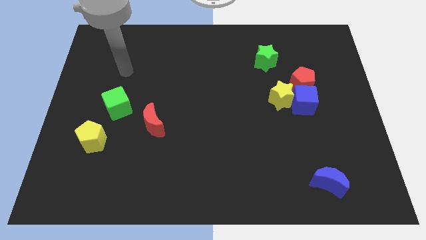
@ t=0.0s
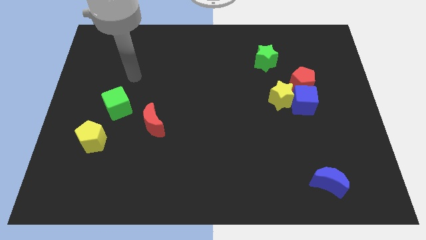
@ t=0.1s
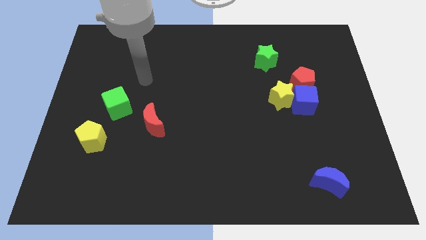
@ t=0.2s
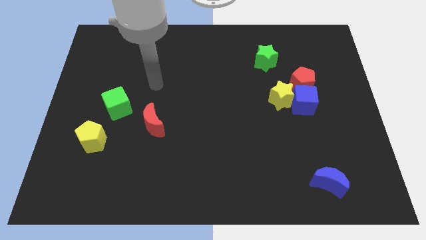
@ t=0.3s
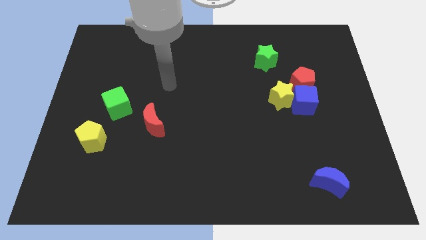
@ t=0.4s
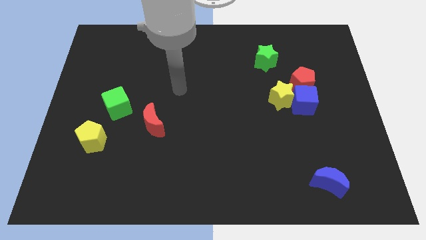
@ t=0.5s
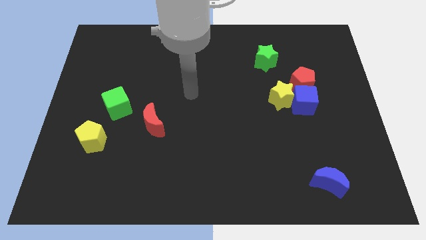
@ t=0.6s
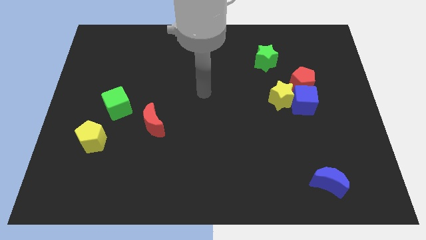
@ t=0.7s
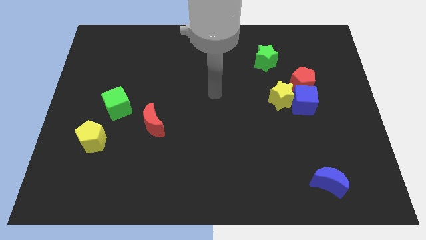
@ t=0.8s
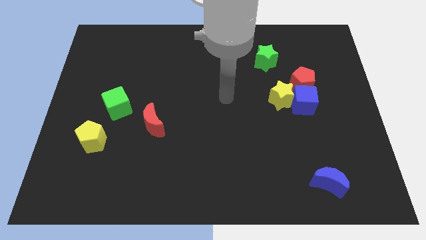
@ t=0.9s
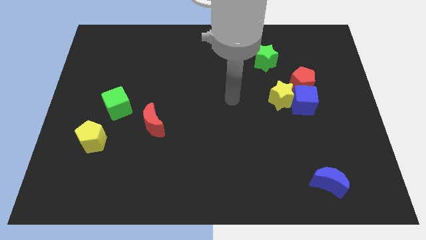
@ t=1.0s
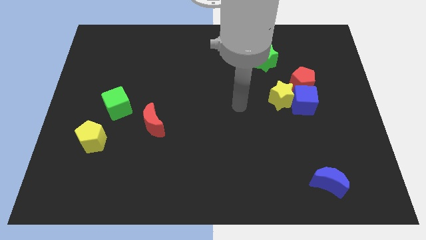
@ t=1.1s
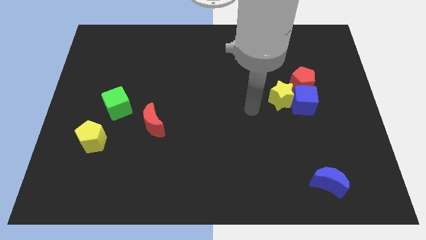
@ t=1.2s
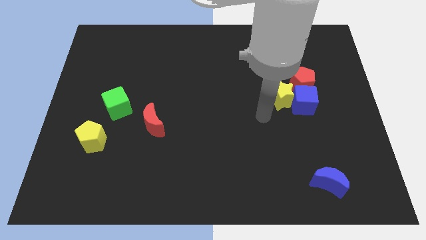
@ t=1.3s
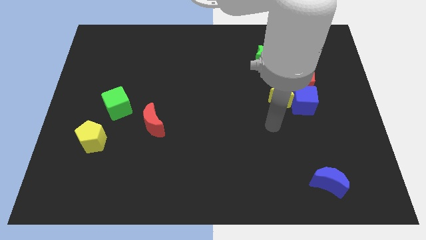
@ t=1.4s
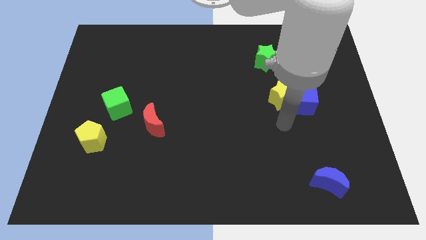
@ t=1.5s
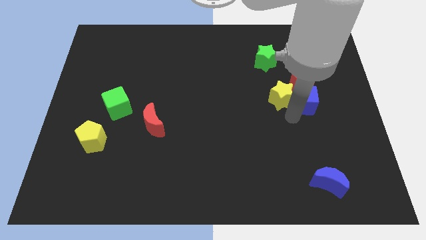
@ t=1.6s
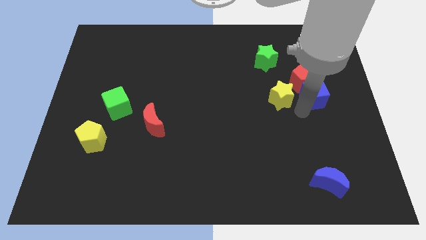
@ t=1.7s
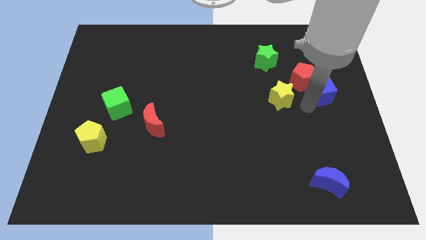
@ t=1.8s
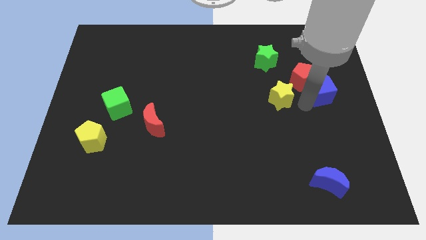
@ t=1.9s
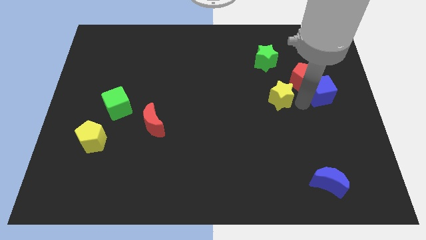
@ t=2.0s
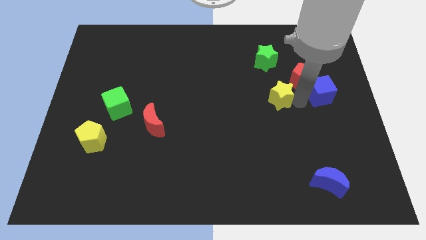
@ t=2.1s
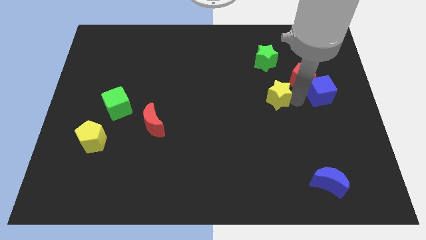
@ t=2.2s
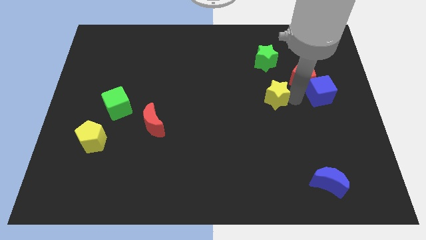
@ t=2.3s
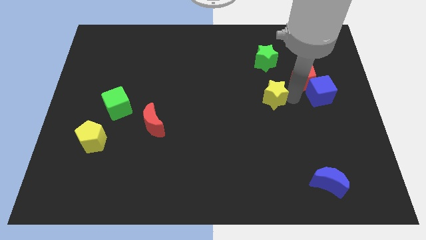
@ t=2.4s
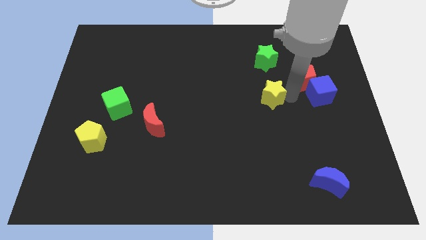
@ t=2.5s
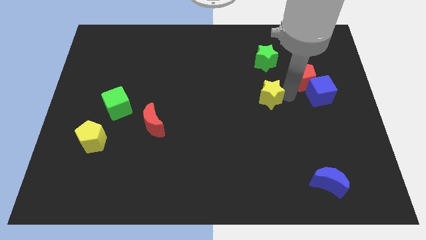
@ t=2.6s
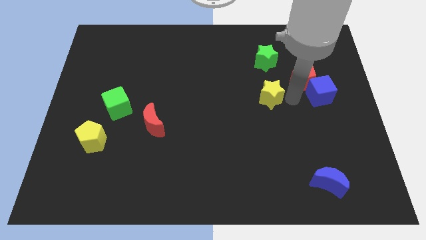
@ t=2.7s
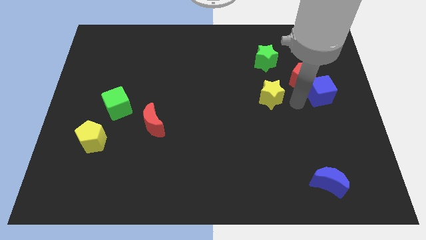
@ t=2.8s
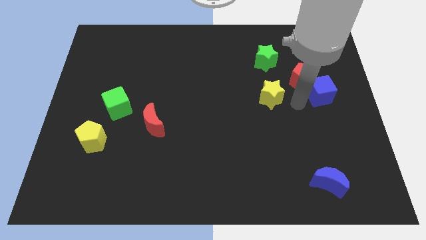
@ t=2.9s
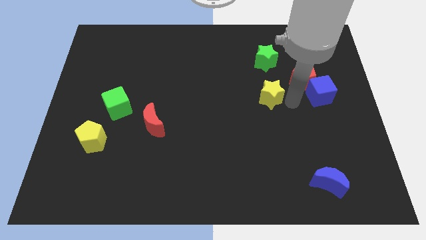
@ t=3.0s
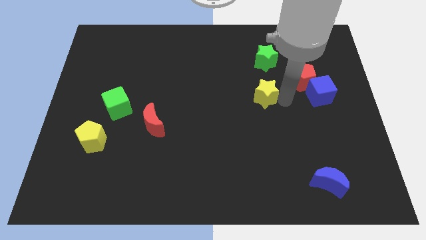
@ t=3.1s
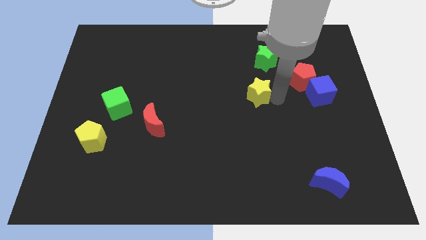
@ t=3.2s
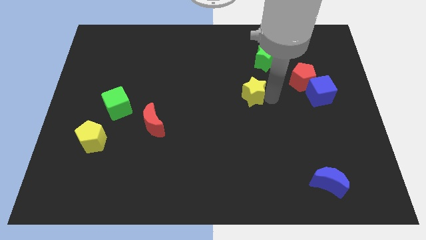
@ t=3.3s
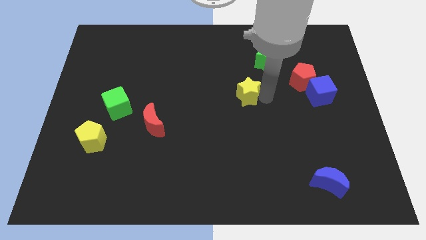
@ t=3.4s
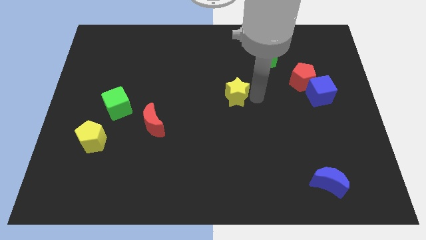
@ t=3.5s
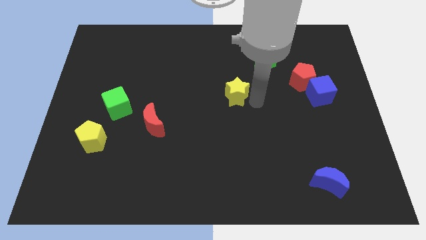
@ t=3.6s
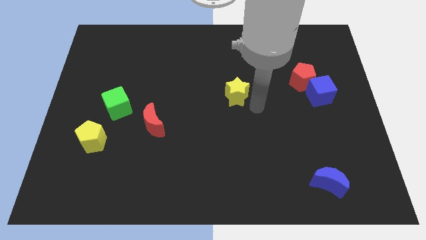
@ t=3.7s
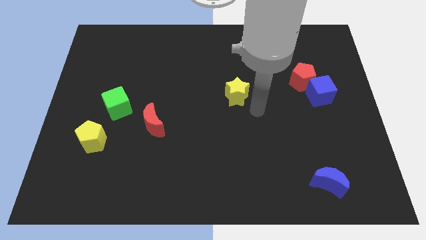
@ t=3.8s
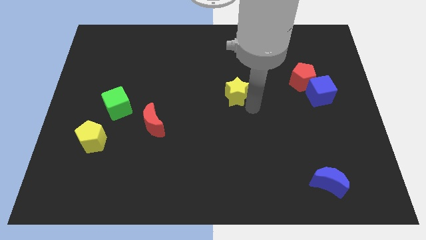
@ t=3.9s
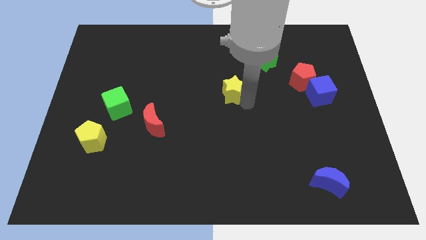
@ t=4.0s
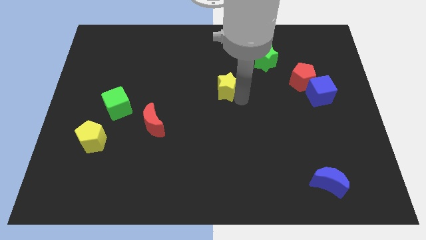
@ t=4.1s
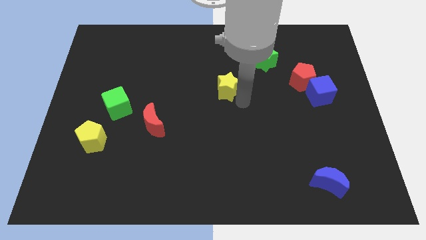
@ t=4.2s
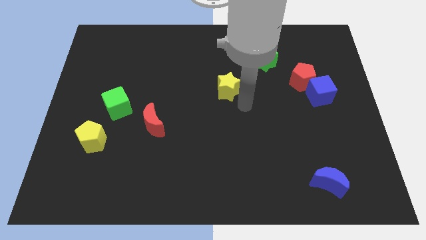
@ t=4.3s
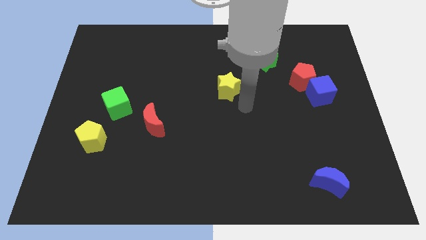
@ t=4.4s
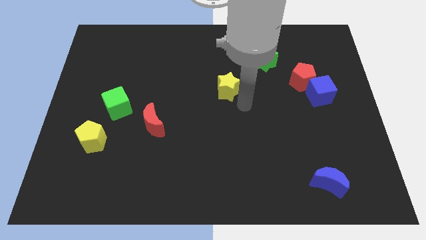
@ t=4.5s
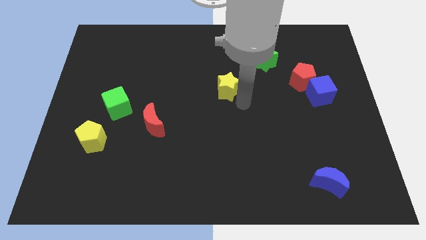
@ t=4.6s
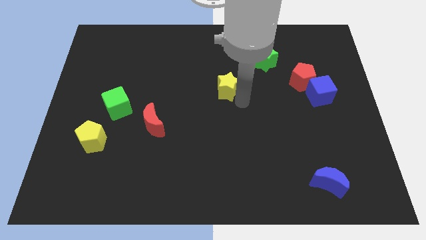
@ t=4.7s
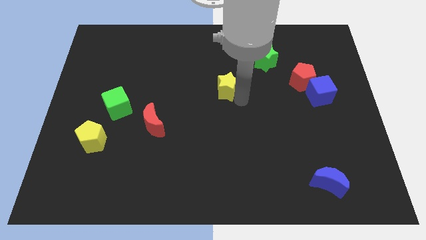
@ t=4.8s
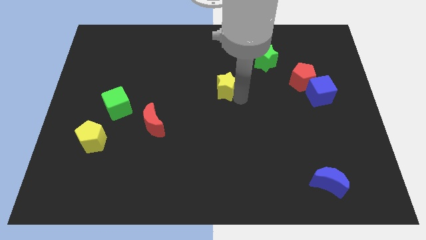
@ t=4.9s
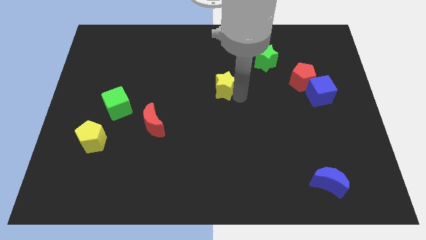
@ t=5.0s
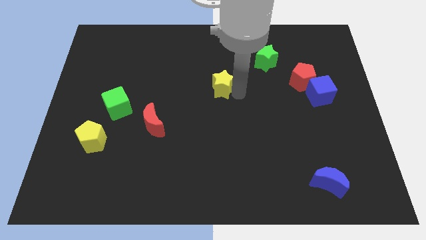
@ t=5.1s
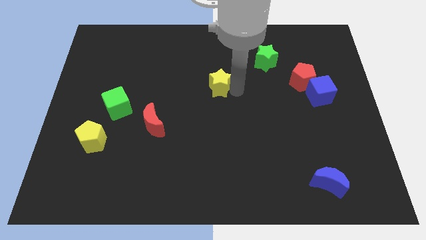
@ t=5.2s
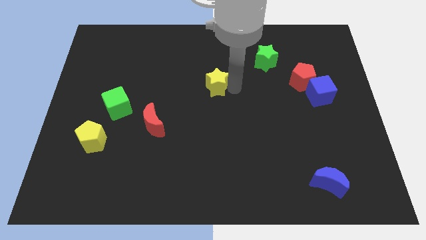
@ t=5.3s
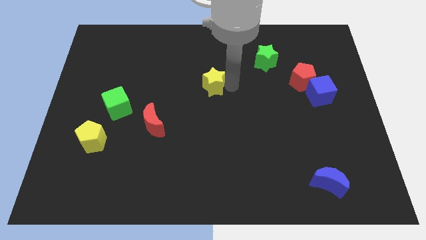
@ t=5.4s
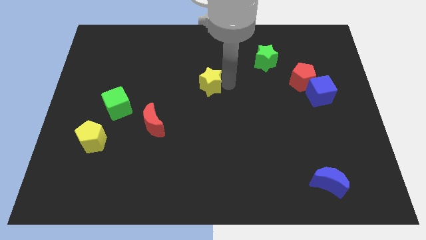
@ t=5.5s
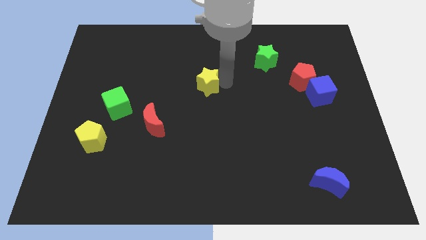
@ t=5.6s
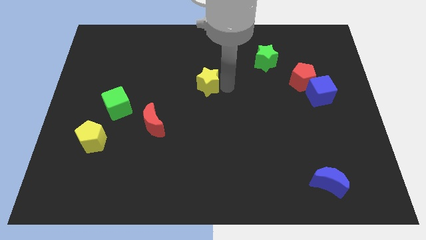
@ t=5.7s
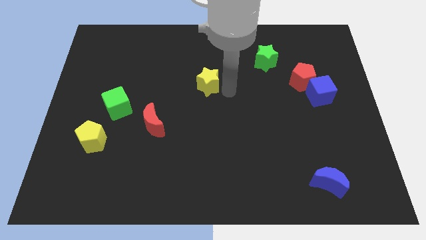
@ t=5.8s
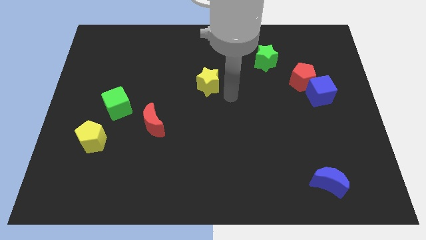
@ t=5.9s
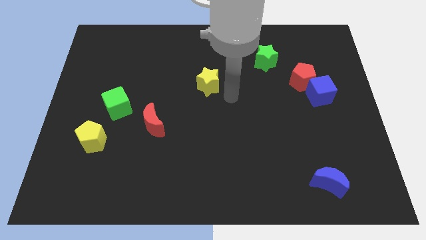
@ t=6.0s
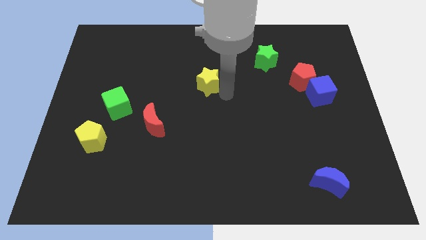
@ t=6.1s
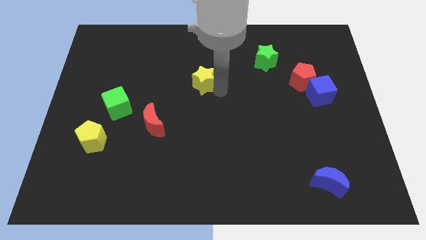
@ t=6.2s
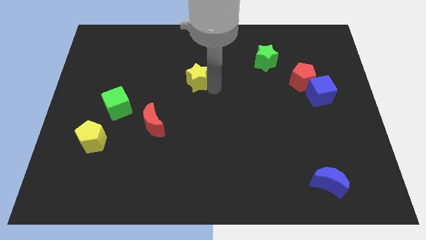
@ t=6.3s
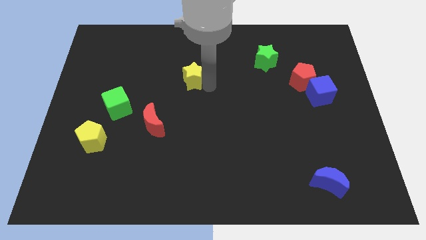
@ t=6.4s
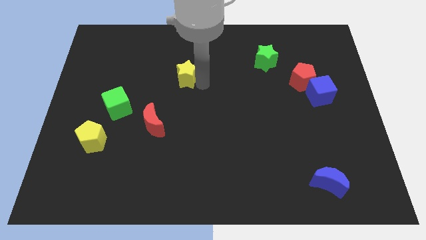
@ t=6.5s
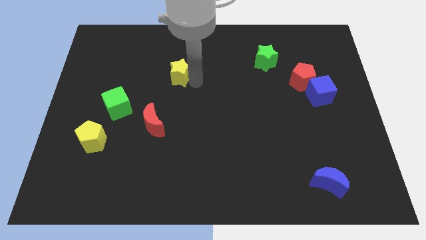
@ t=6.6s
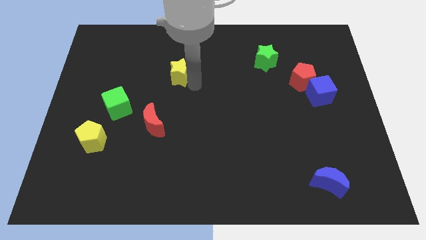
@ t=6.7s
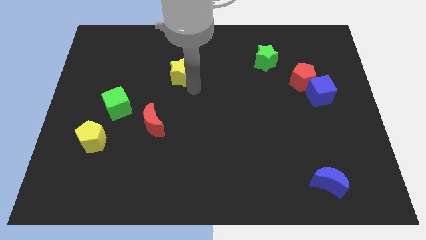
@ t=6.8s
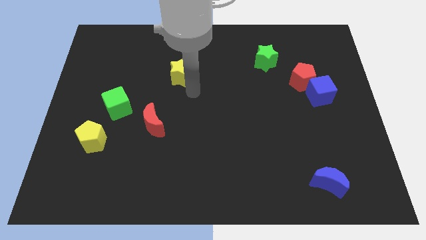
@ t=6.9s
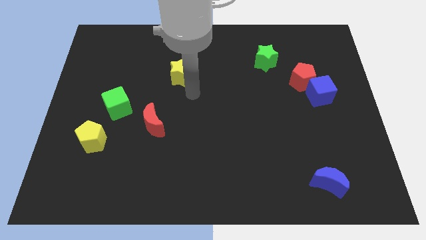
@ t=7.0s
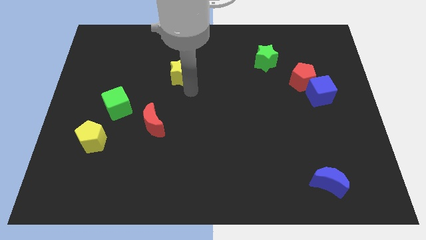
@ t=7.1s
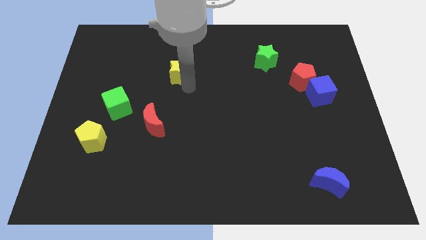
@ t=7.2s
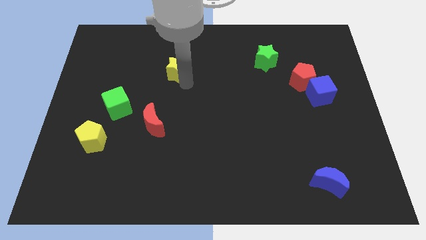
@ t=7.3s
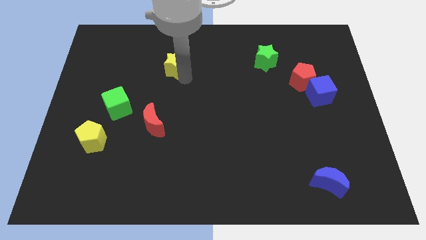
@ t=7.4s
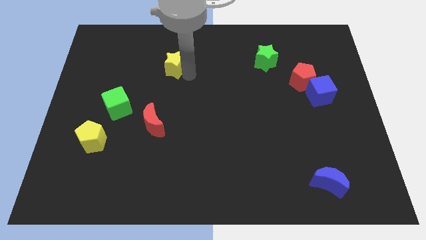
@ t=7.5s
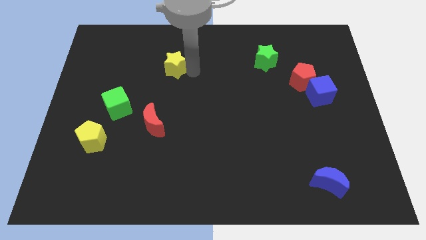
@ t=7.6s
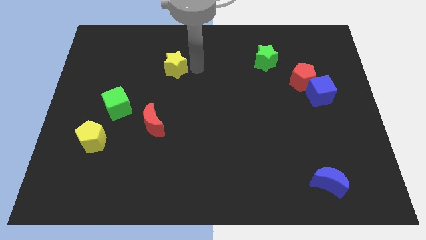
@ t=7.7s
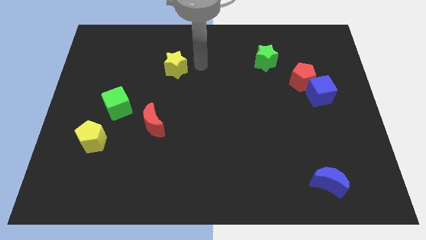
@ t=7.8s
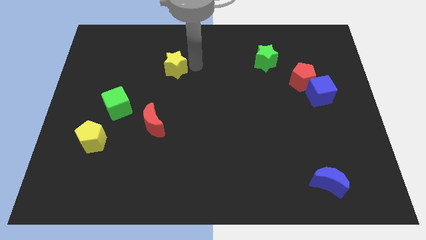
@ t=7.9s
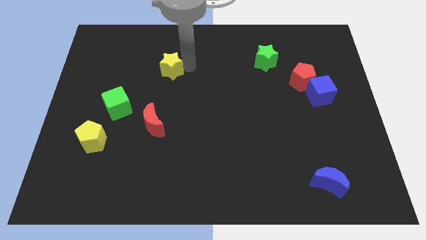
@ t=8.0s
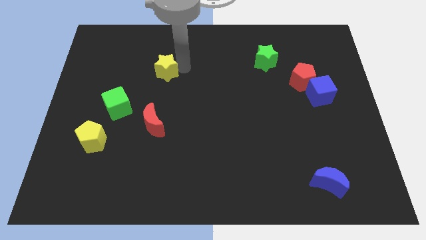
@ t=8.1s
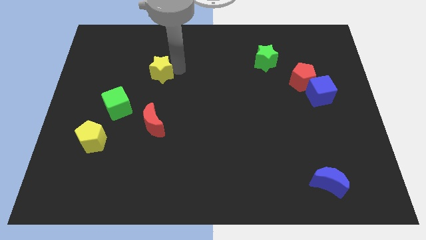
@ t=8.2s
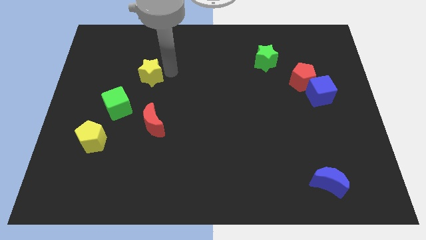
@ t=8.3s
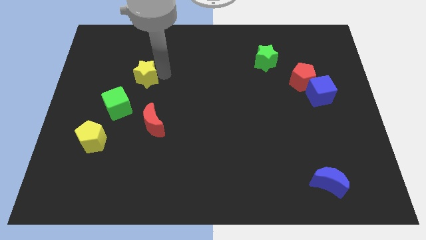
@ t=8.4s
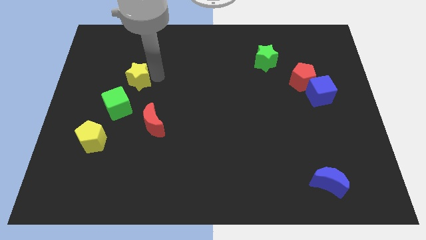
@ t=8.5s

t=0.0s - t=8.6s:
push the yellow star to the top of the green cube
